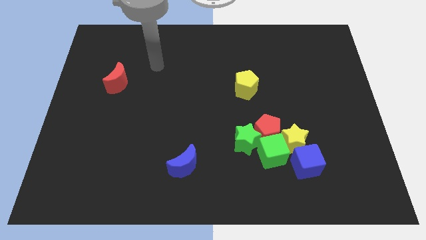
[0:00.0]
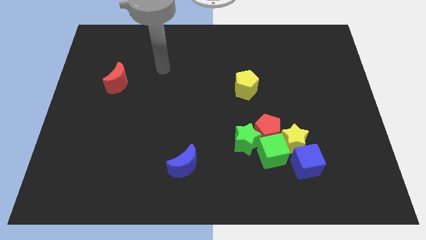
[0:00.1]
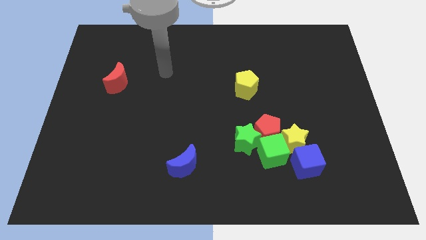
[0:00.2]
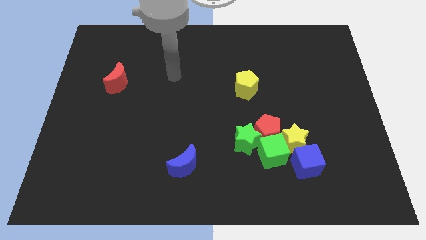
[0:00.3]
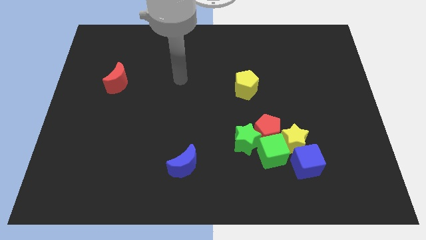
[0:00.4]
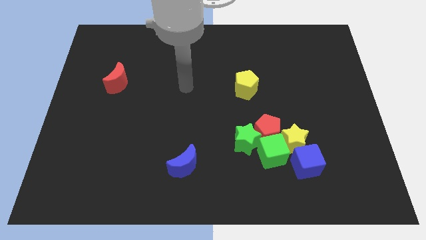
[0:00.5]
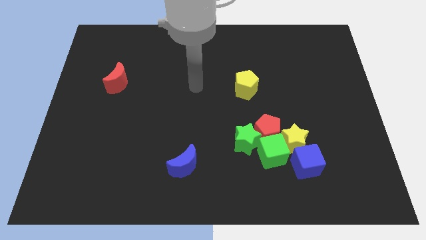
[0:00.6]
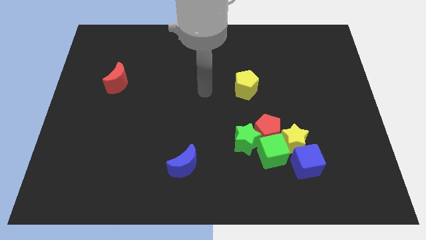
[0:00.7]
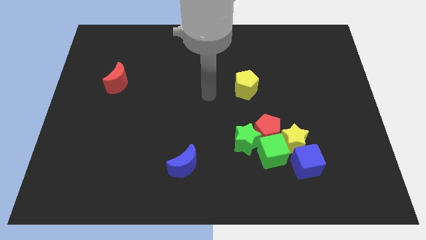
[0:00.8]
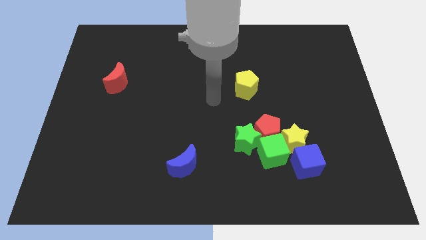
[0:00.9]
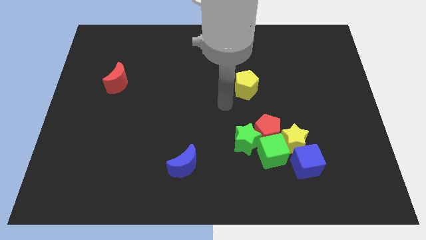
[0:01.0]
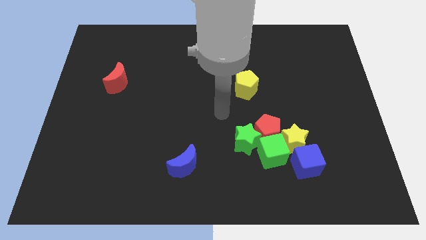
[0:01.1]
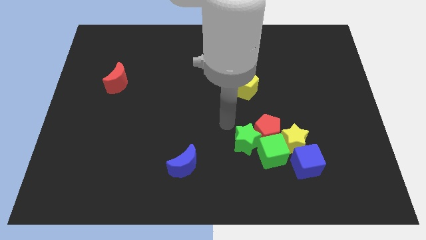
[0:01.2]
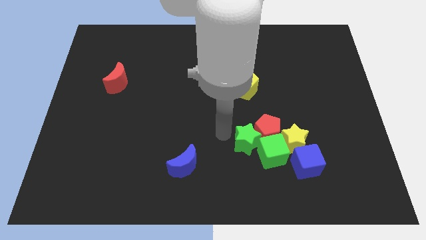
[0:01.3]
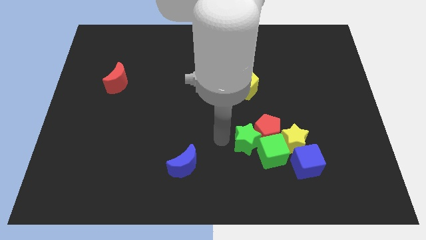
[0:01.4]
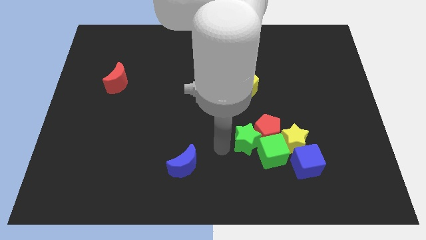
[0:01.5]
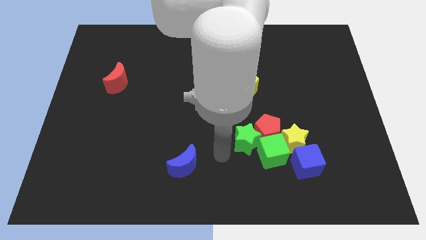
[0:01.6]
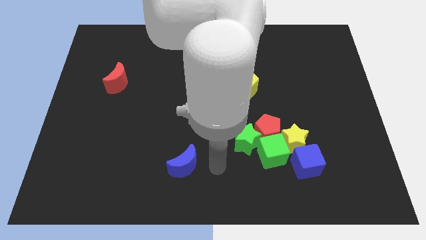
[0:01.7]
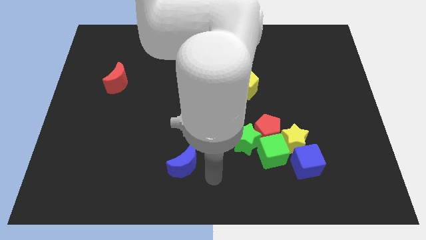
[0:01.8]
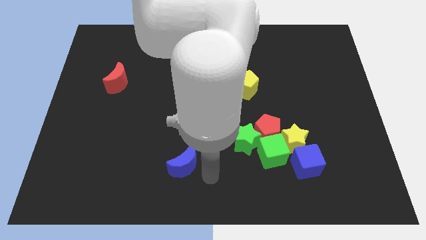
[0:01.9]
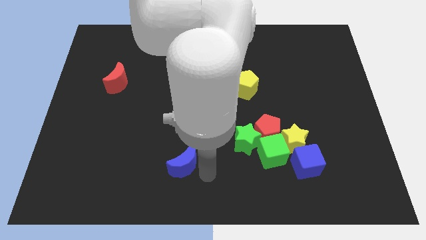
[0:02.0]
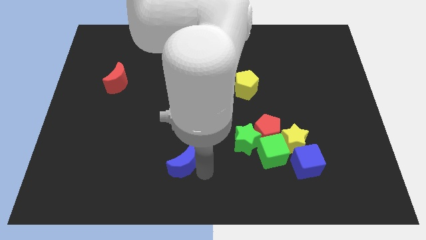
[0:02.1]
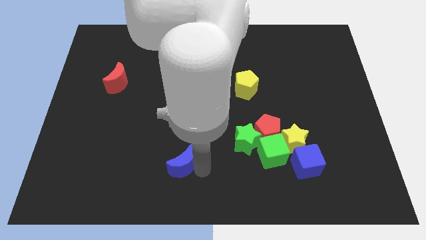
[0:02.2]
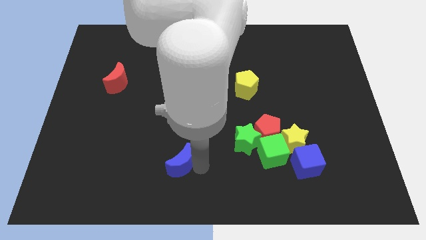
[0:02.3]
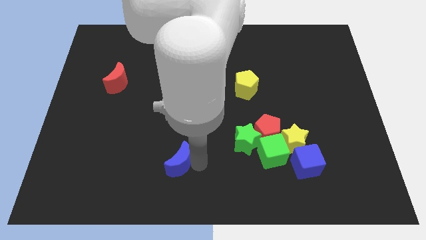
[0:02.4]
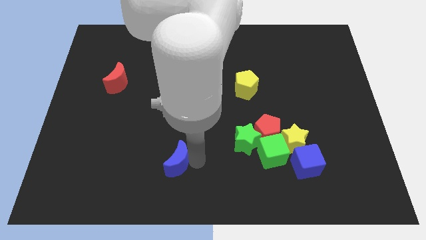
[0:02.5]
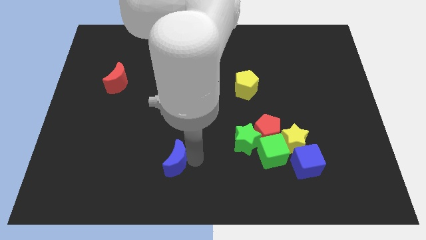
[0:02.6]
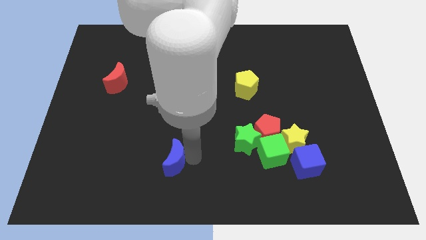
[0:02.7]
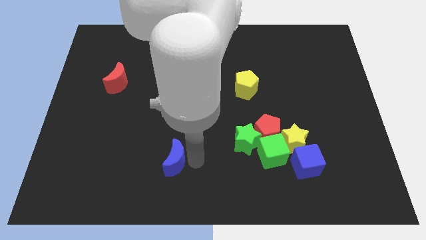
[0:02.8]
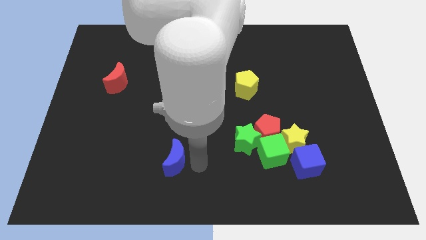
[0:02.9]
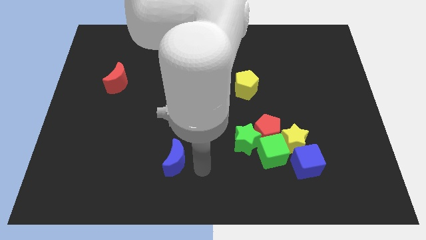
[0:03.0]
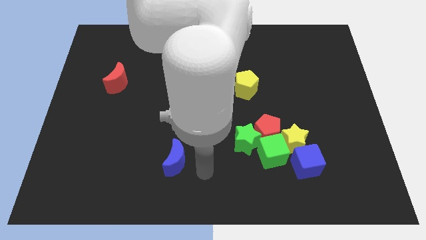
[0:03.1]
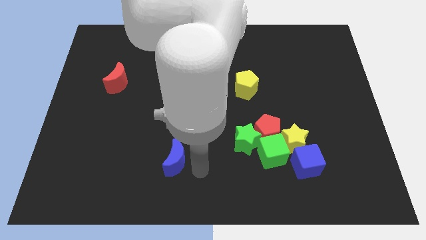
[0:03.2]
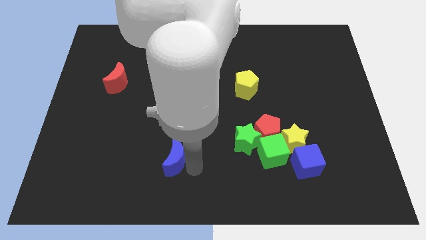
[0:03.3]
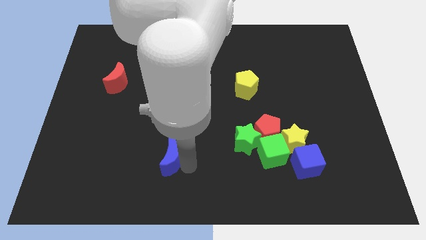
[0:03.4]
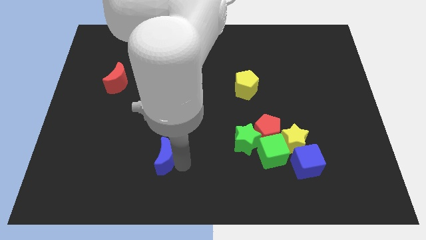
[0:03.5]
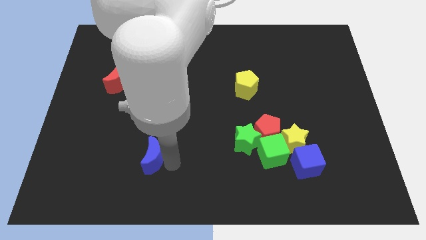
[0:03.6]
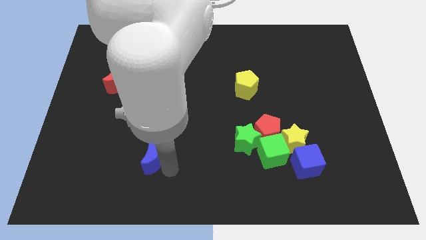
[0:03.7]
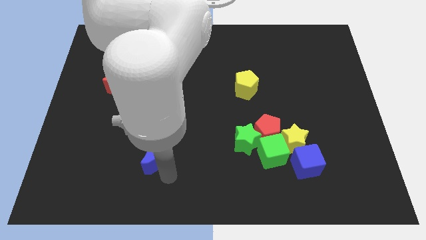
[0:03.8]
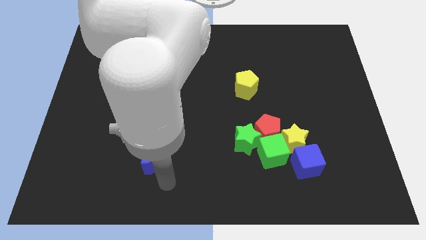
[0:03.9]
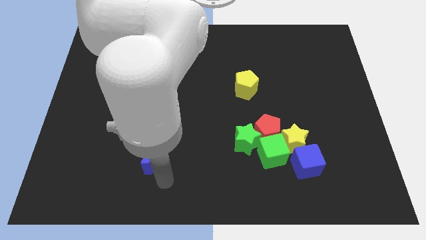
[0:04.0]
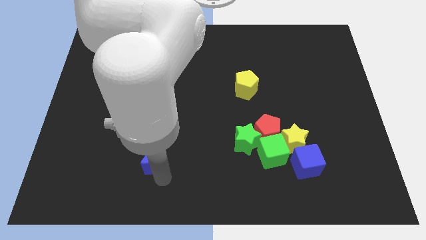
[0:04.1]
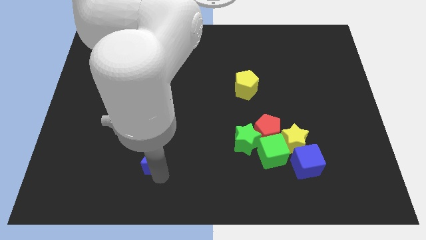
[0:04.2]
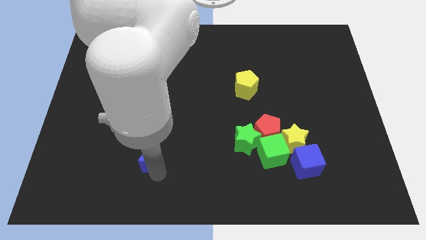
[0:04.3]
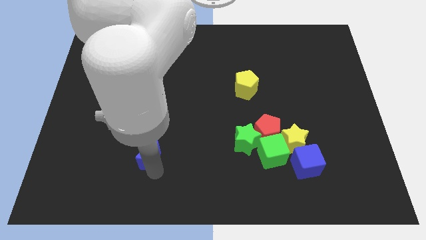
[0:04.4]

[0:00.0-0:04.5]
move the blue moon up and to the left a little bit

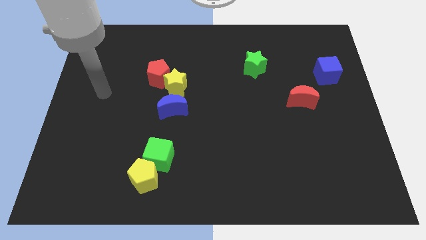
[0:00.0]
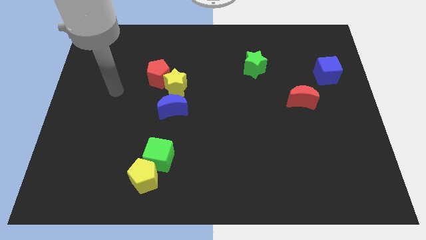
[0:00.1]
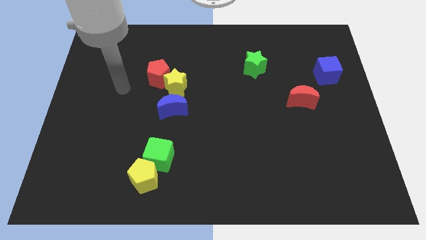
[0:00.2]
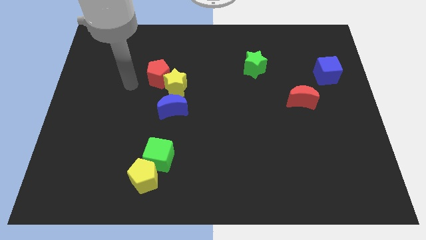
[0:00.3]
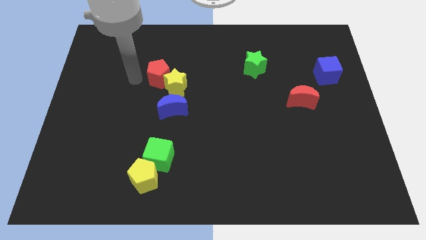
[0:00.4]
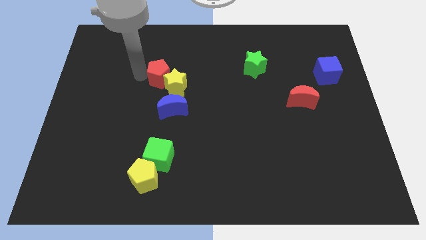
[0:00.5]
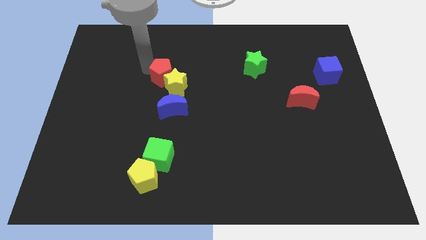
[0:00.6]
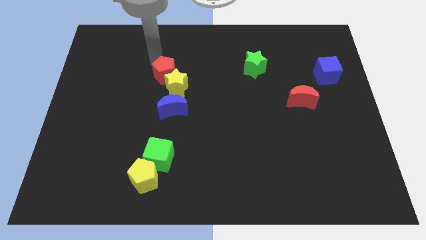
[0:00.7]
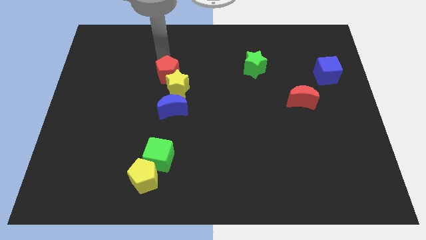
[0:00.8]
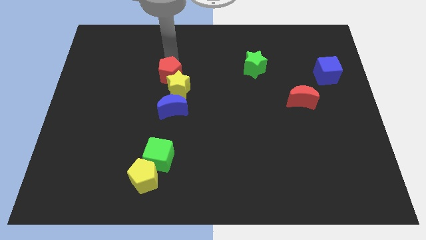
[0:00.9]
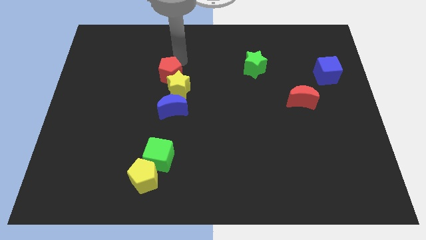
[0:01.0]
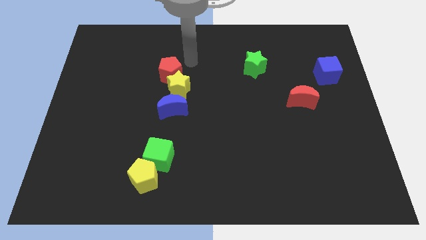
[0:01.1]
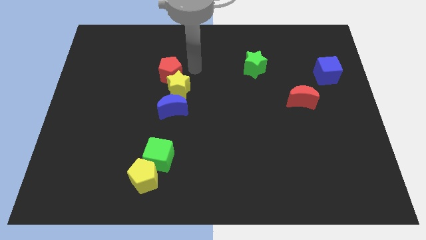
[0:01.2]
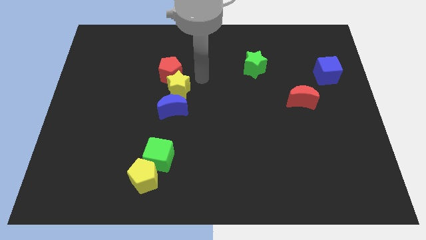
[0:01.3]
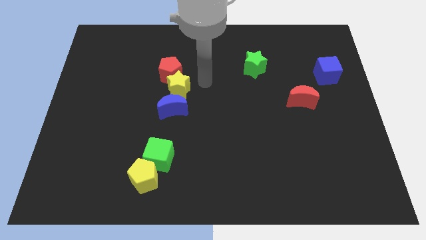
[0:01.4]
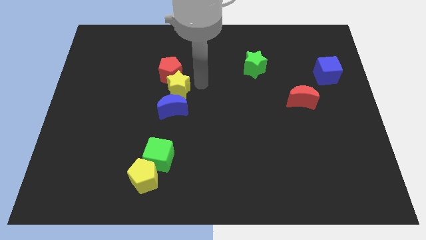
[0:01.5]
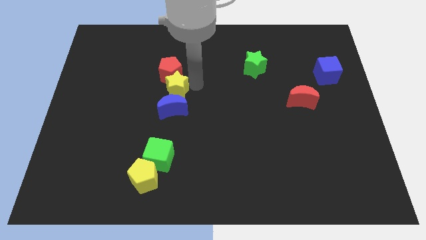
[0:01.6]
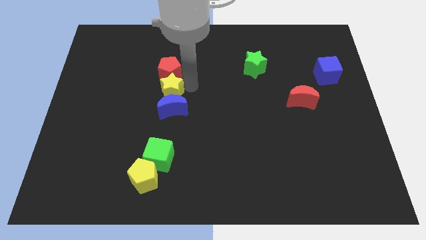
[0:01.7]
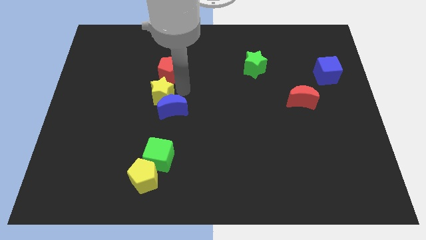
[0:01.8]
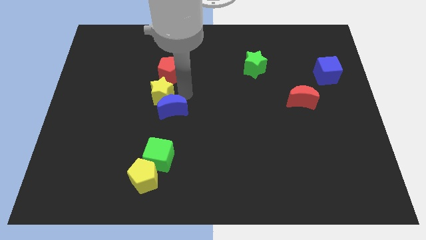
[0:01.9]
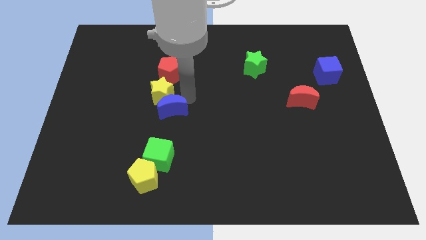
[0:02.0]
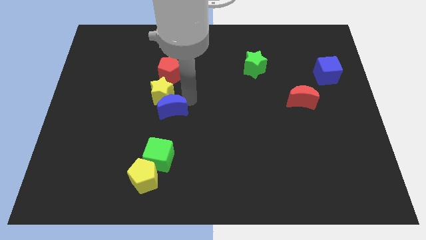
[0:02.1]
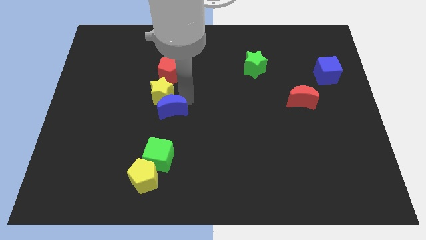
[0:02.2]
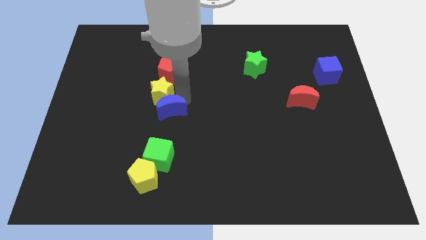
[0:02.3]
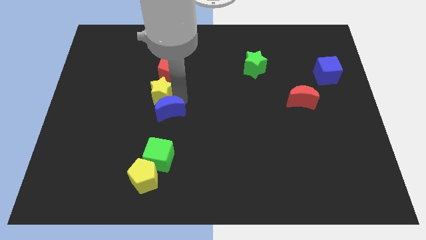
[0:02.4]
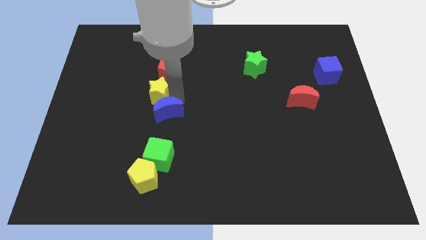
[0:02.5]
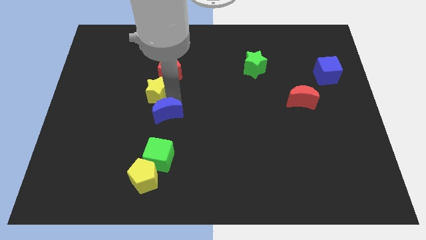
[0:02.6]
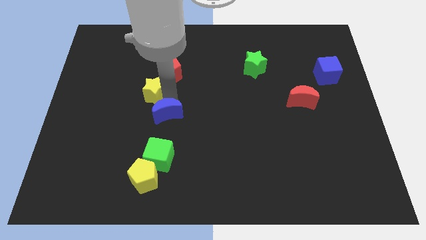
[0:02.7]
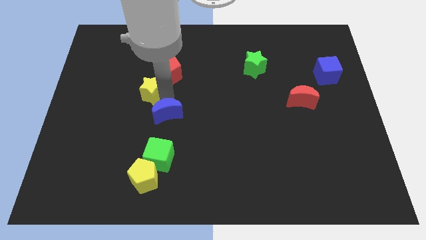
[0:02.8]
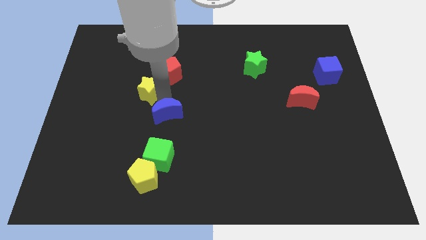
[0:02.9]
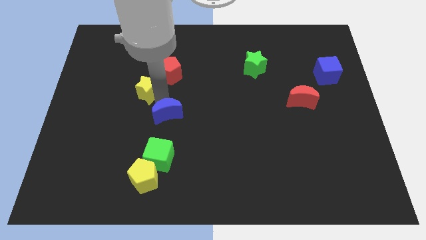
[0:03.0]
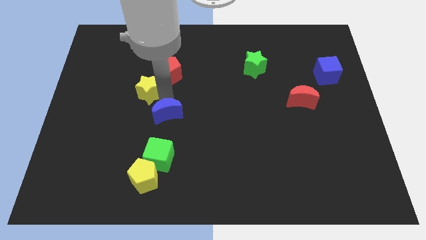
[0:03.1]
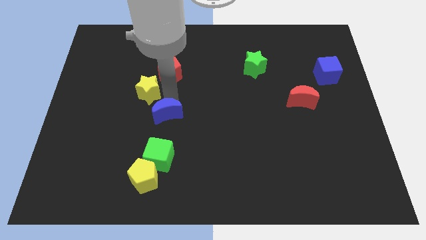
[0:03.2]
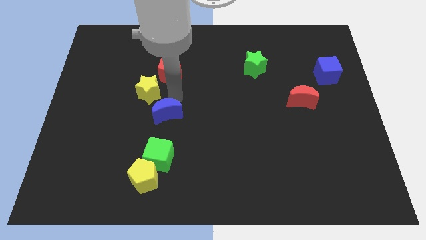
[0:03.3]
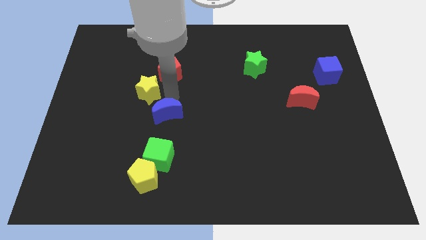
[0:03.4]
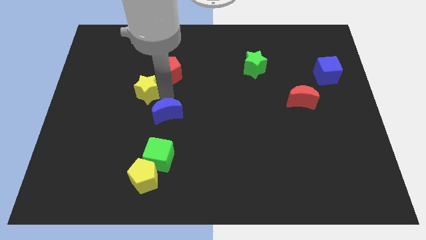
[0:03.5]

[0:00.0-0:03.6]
push the yellow star left a bit
